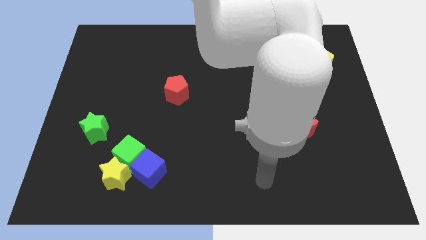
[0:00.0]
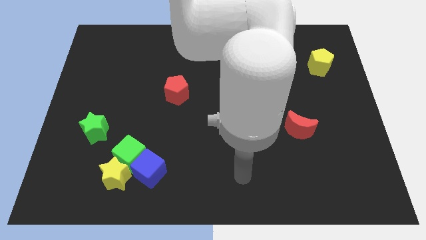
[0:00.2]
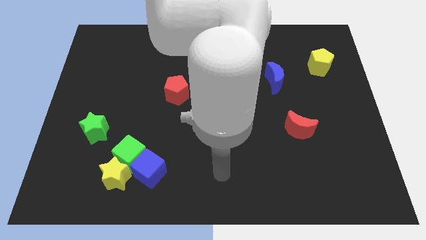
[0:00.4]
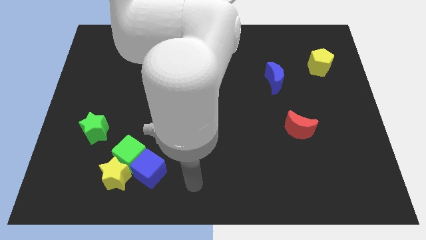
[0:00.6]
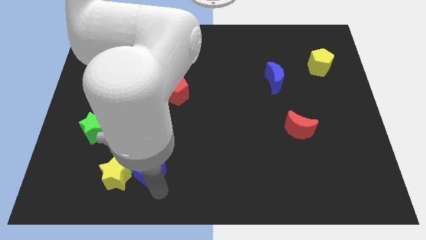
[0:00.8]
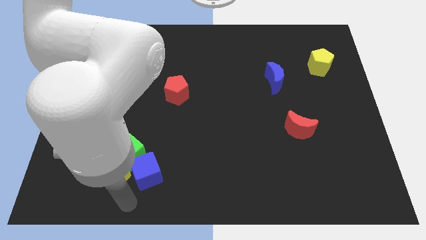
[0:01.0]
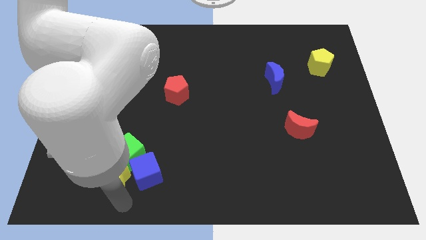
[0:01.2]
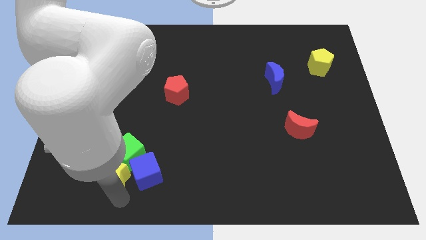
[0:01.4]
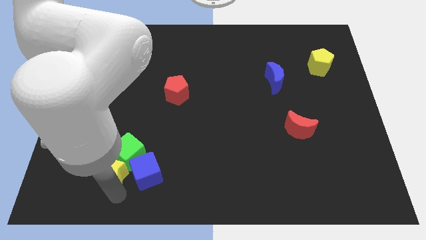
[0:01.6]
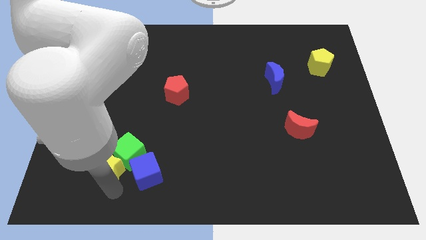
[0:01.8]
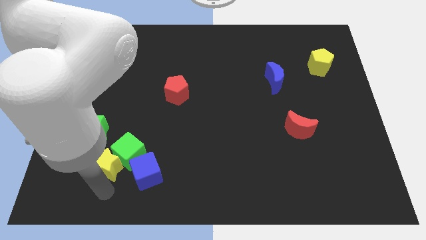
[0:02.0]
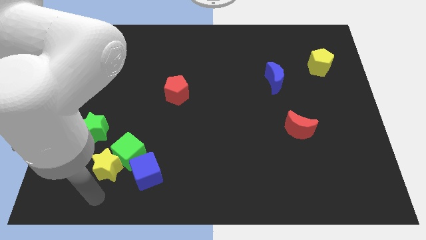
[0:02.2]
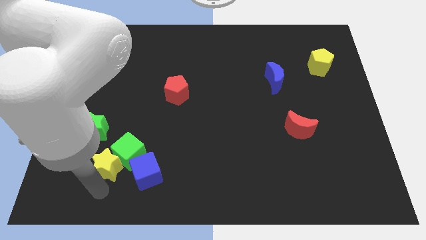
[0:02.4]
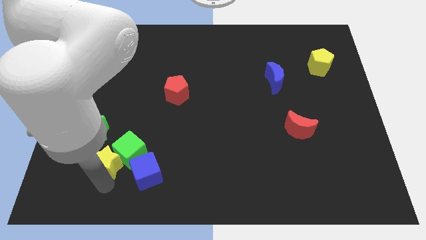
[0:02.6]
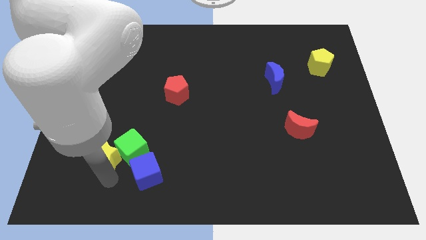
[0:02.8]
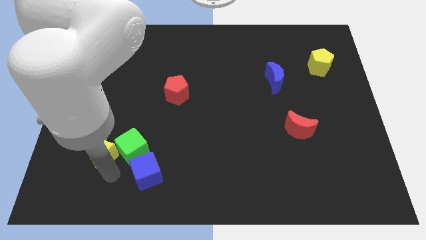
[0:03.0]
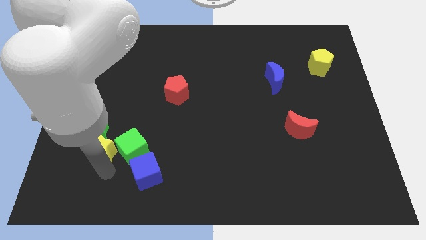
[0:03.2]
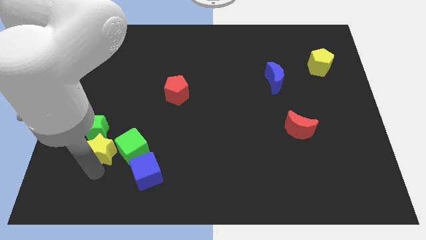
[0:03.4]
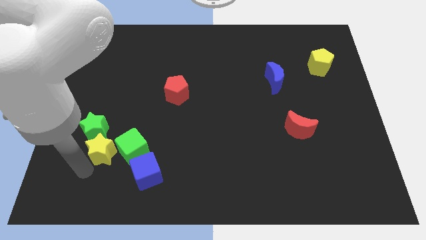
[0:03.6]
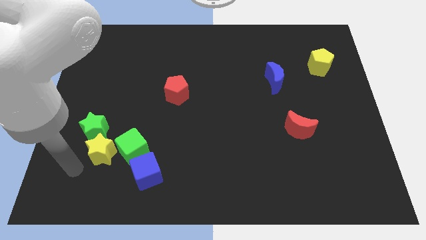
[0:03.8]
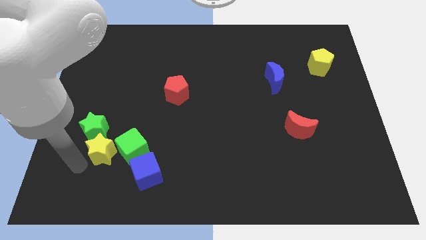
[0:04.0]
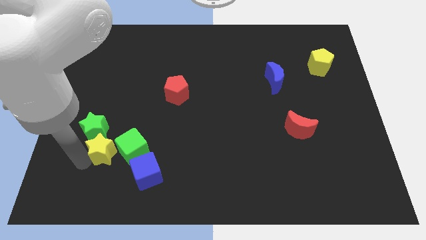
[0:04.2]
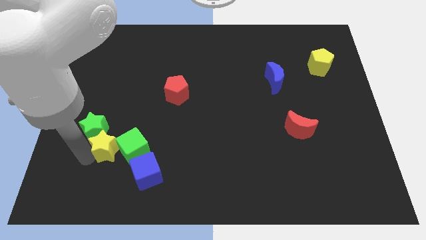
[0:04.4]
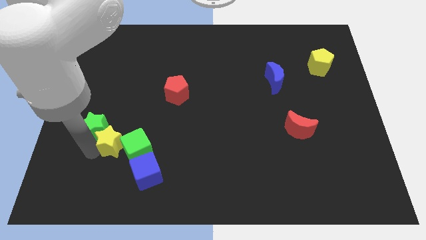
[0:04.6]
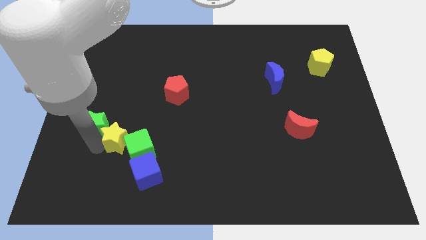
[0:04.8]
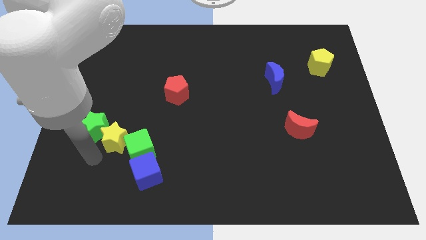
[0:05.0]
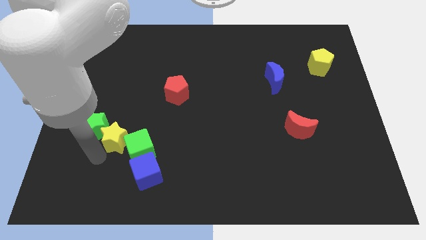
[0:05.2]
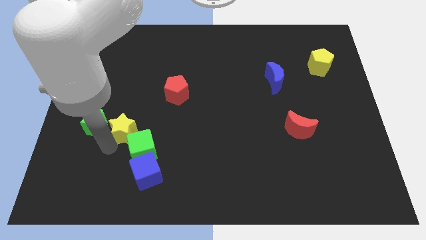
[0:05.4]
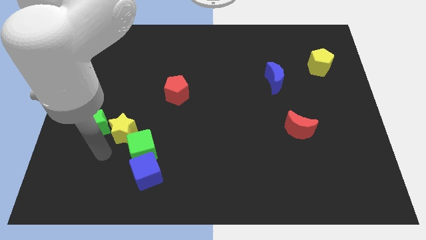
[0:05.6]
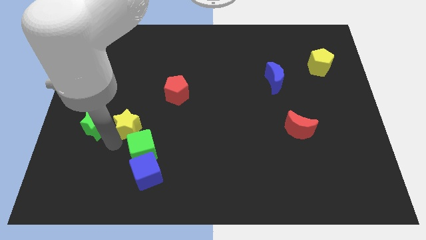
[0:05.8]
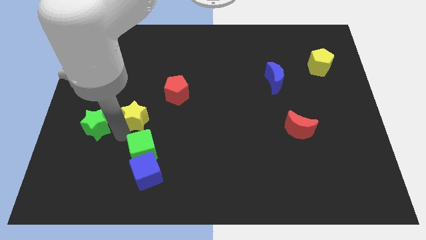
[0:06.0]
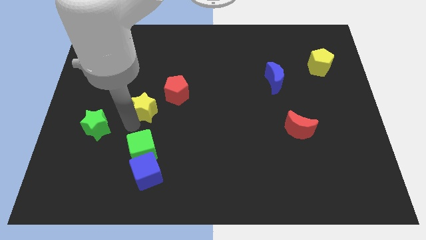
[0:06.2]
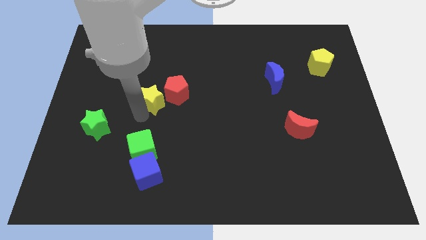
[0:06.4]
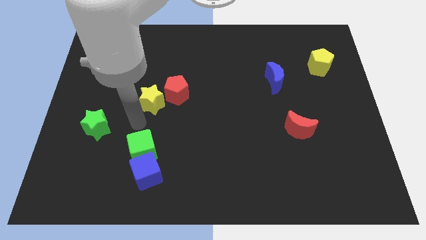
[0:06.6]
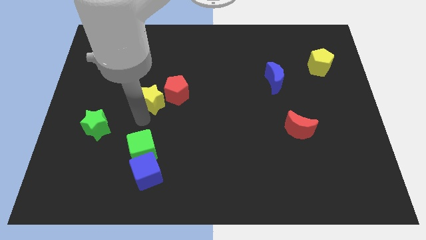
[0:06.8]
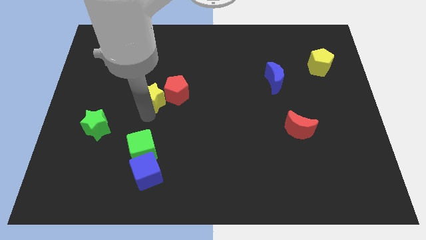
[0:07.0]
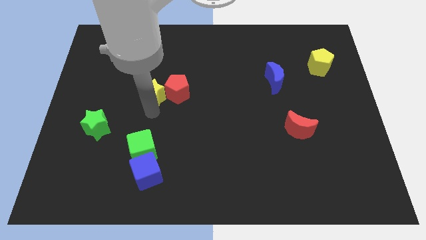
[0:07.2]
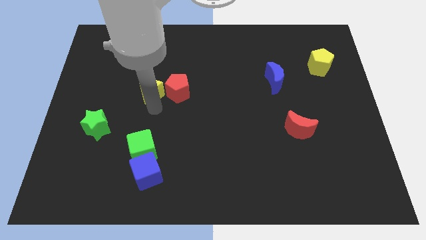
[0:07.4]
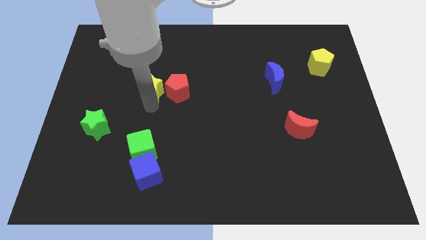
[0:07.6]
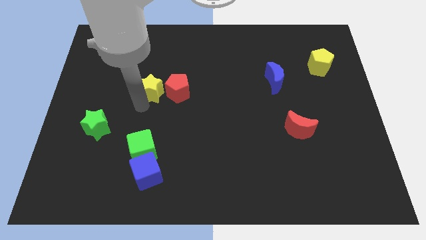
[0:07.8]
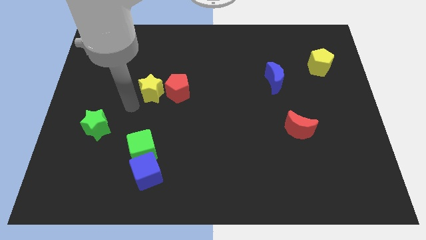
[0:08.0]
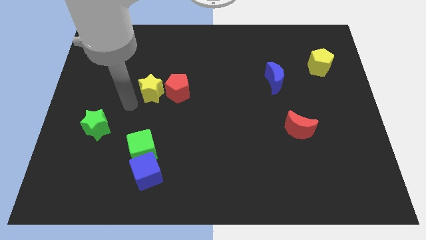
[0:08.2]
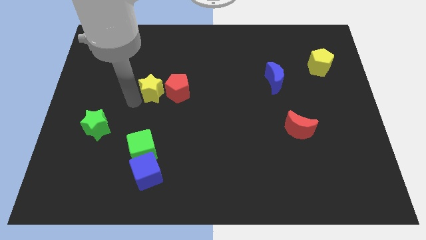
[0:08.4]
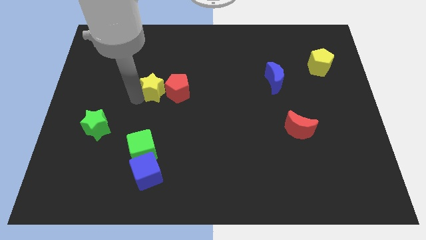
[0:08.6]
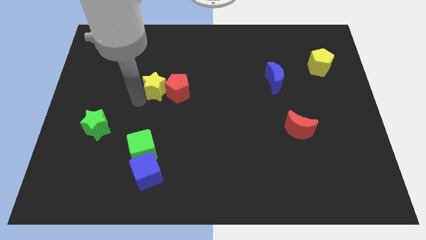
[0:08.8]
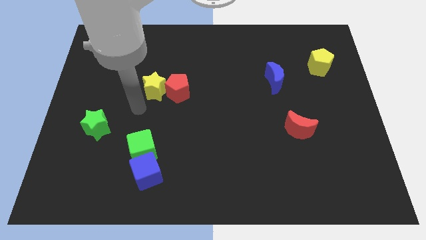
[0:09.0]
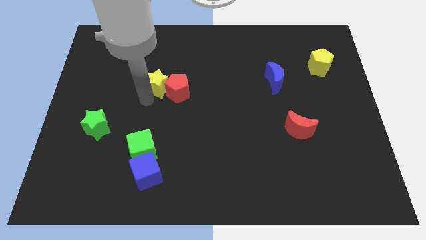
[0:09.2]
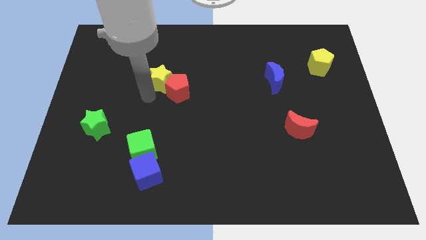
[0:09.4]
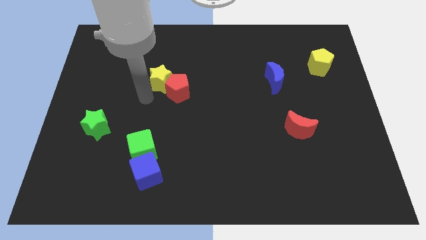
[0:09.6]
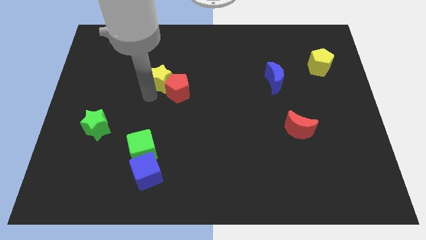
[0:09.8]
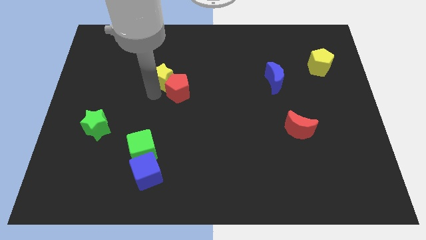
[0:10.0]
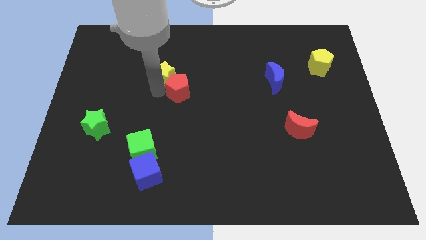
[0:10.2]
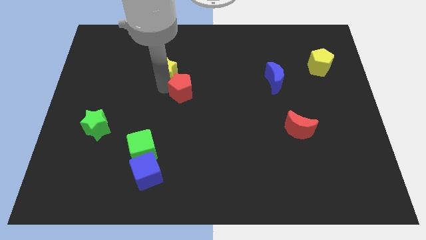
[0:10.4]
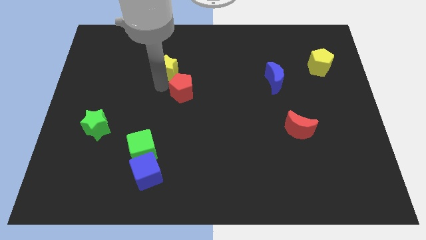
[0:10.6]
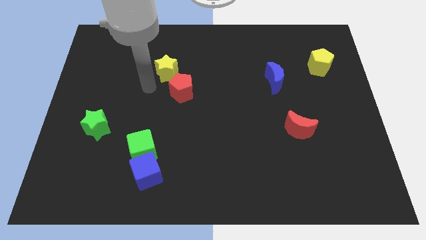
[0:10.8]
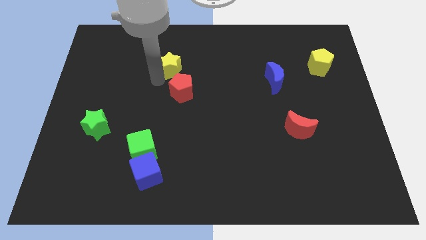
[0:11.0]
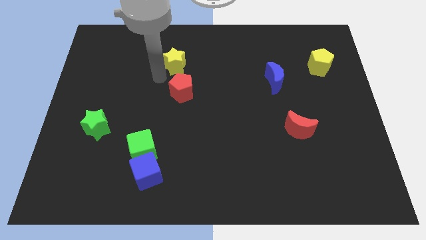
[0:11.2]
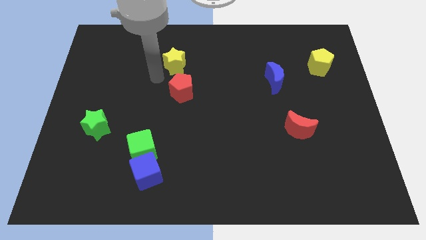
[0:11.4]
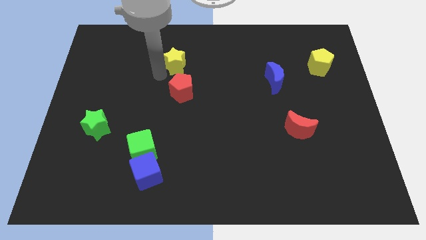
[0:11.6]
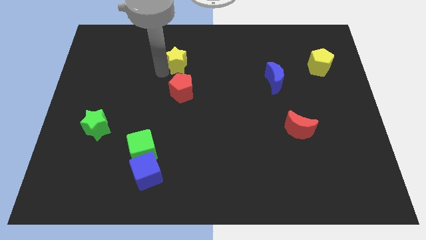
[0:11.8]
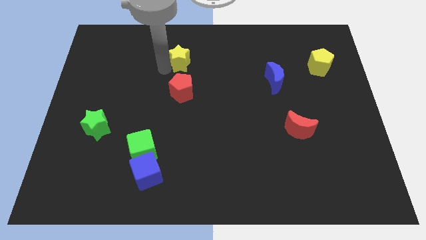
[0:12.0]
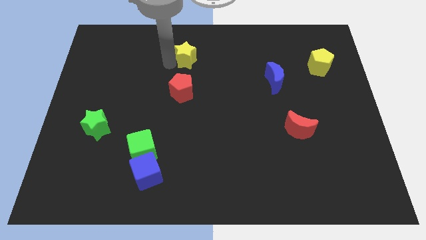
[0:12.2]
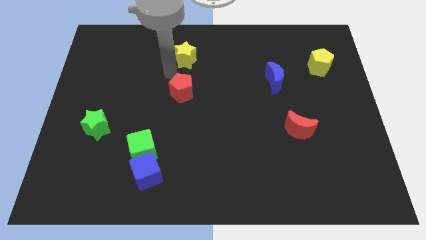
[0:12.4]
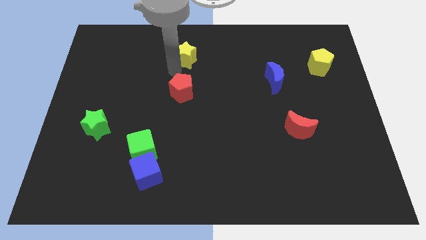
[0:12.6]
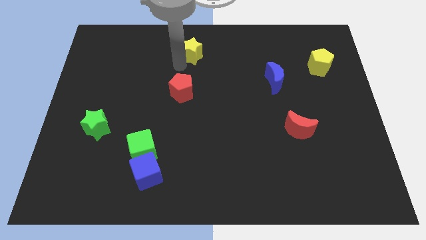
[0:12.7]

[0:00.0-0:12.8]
push the yellow star to the top side
